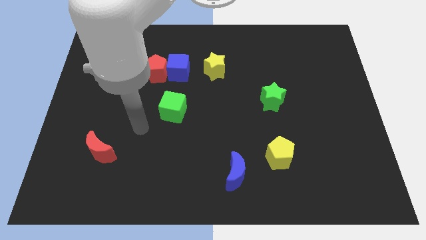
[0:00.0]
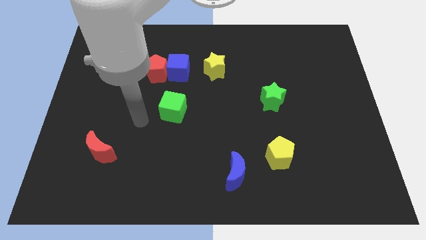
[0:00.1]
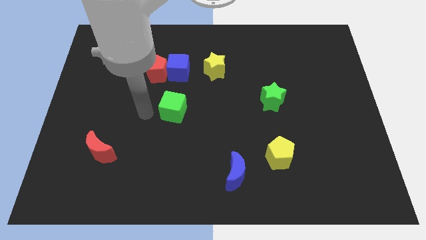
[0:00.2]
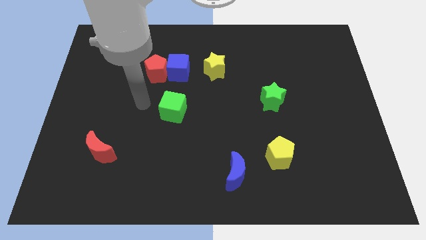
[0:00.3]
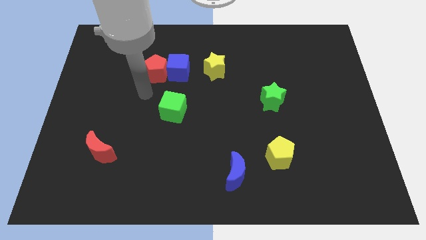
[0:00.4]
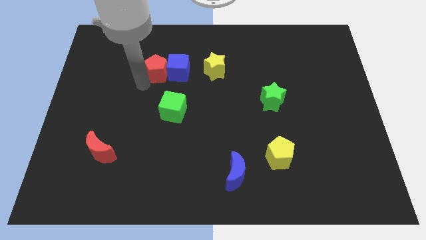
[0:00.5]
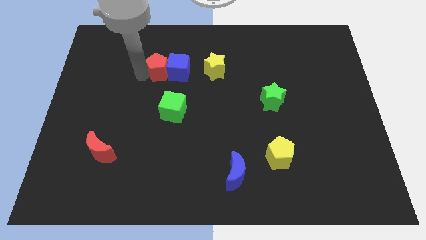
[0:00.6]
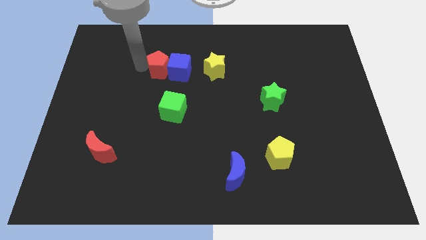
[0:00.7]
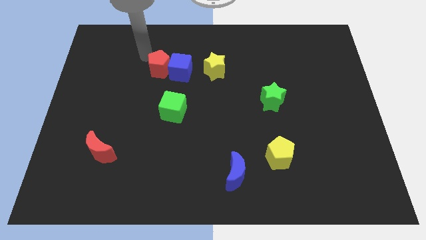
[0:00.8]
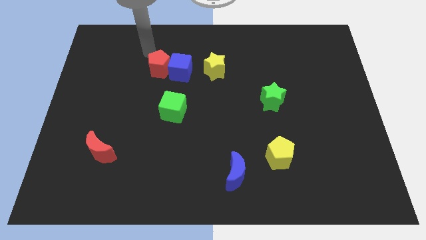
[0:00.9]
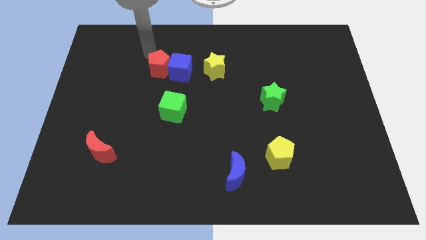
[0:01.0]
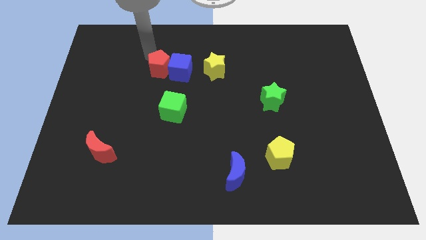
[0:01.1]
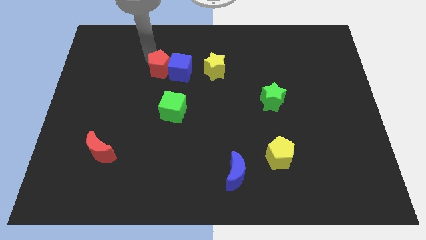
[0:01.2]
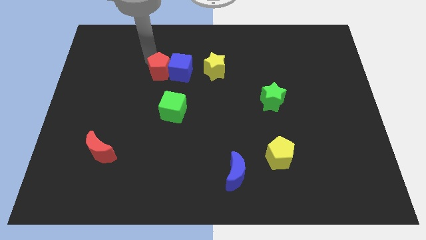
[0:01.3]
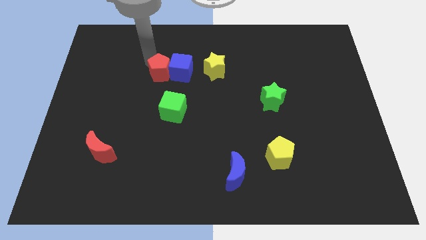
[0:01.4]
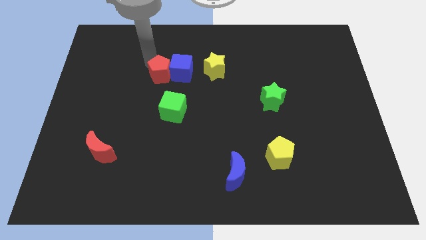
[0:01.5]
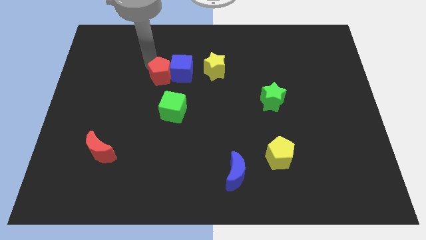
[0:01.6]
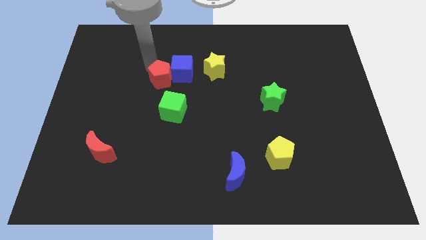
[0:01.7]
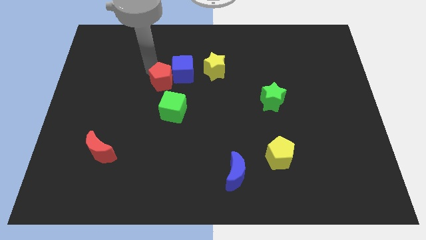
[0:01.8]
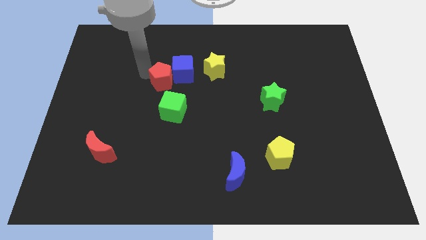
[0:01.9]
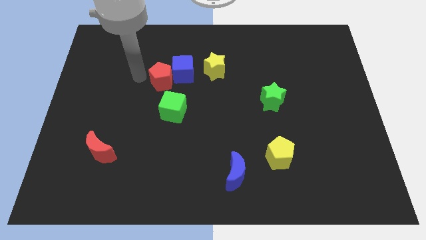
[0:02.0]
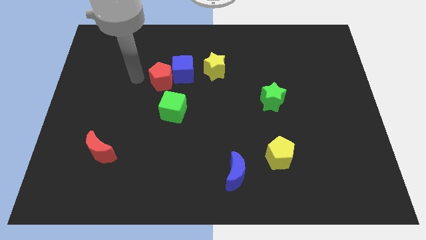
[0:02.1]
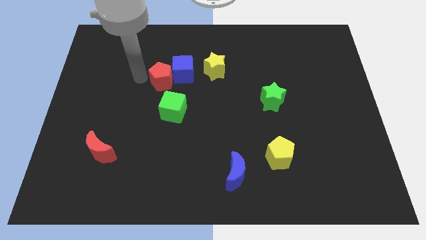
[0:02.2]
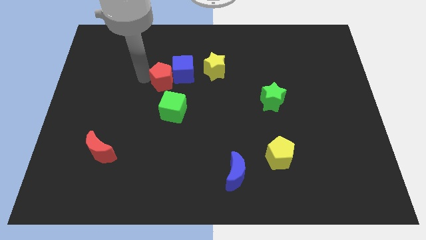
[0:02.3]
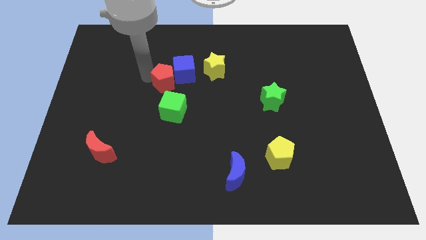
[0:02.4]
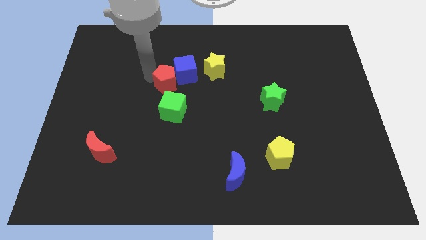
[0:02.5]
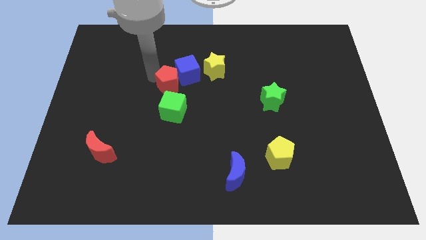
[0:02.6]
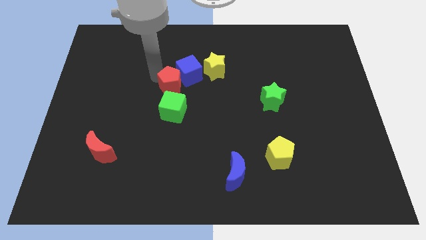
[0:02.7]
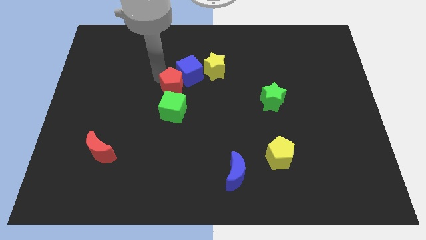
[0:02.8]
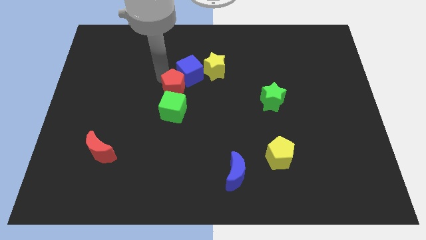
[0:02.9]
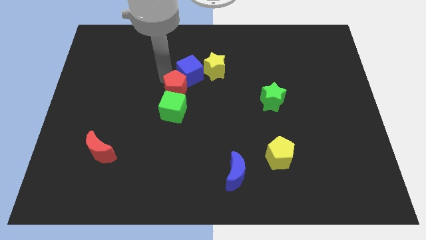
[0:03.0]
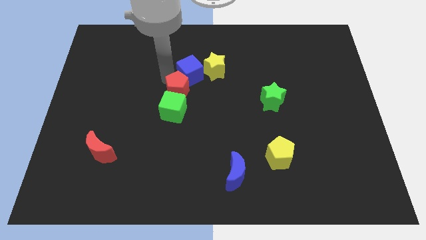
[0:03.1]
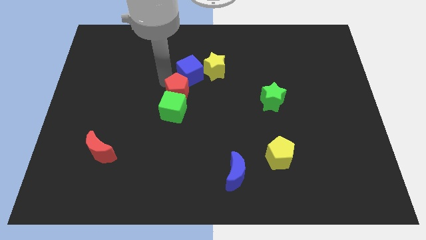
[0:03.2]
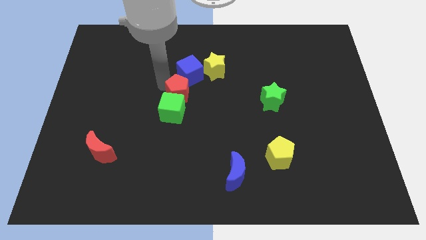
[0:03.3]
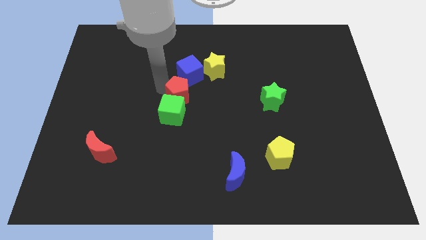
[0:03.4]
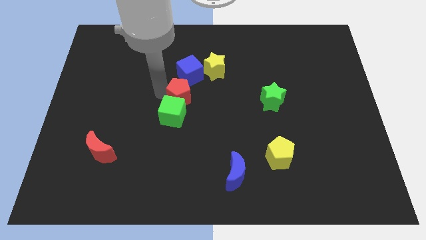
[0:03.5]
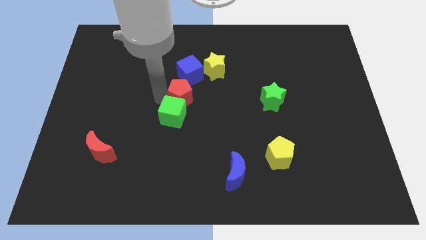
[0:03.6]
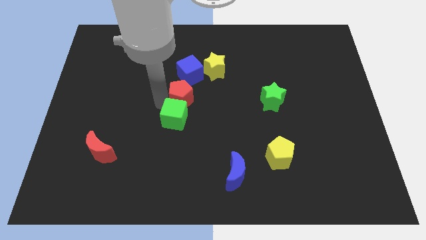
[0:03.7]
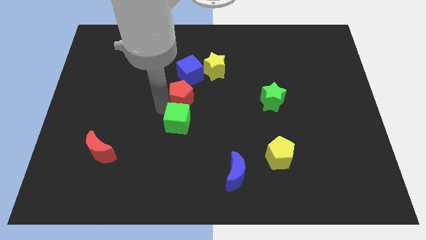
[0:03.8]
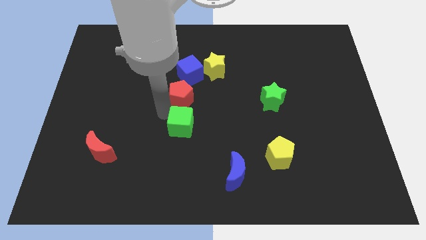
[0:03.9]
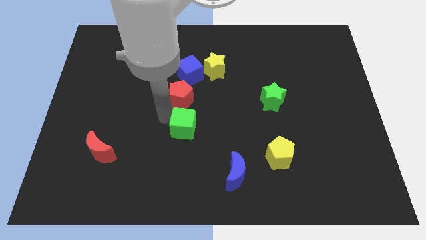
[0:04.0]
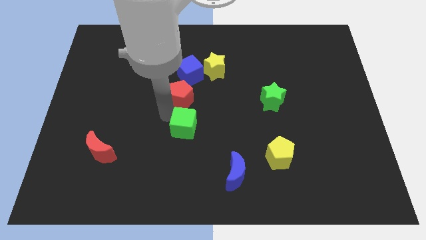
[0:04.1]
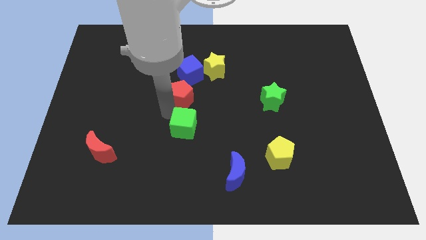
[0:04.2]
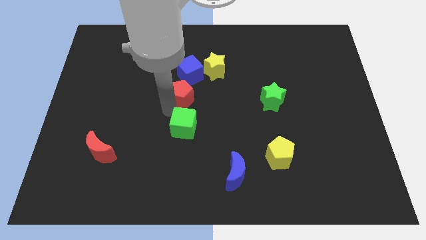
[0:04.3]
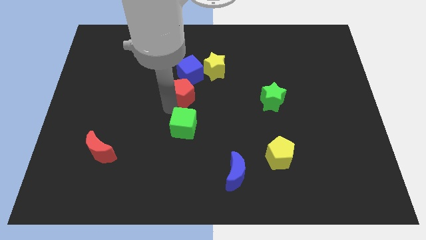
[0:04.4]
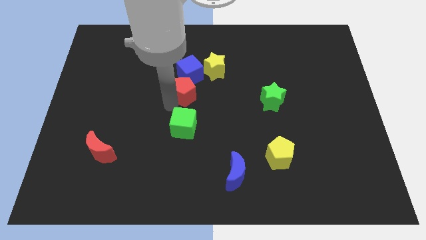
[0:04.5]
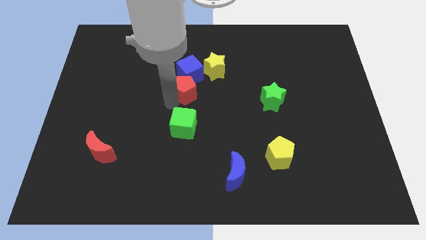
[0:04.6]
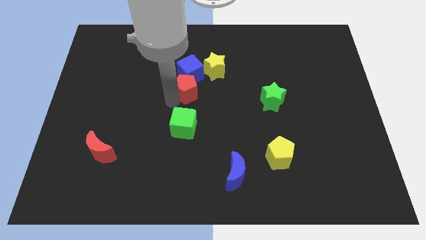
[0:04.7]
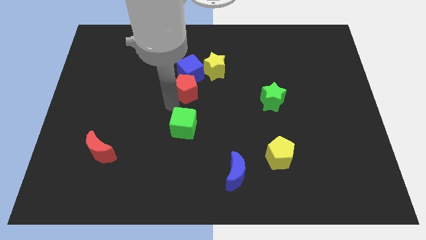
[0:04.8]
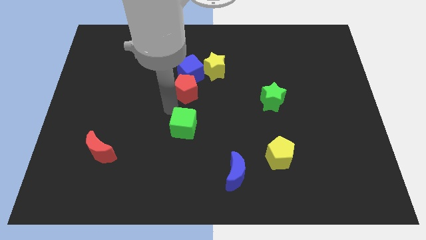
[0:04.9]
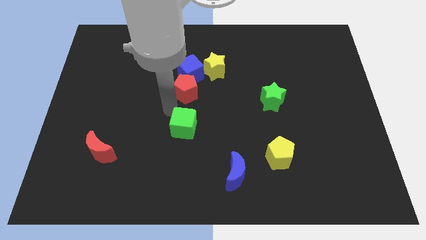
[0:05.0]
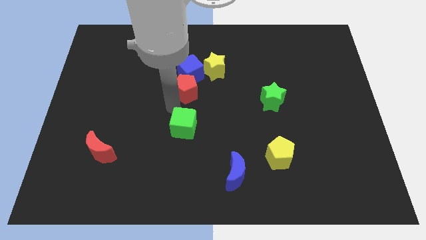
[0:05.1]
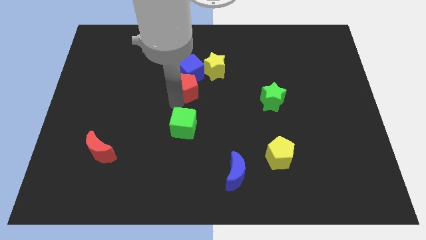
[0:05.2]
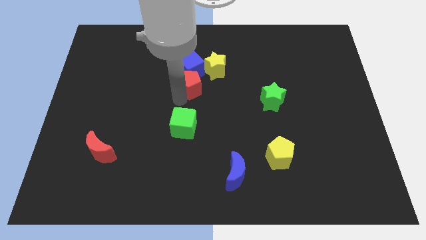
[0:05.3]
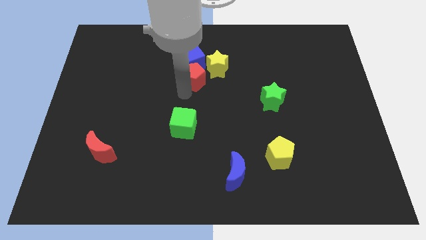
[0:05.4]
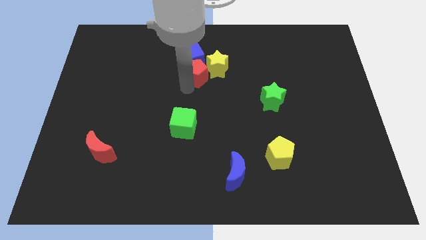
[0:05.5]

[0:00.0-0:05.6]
move the red pentagon close to the yellow star

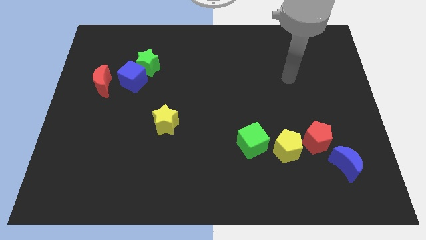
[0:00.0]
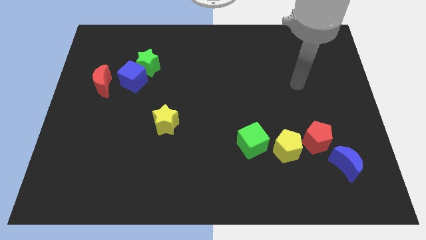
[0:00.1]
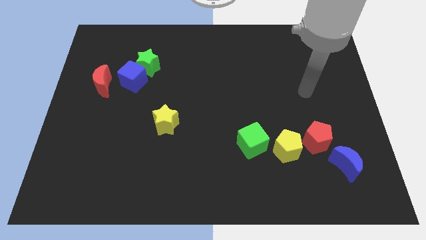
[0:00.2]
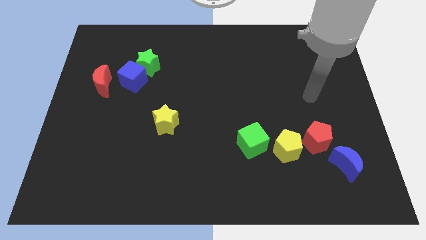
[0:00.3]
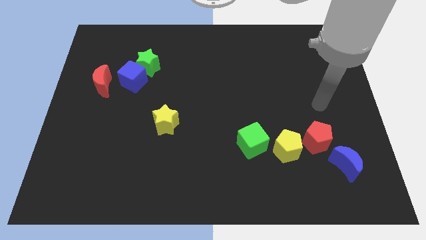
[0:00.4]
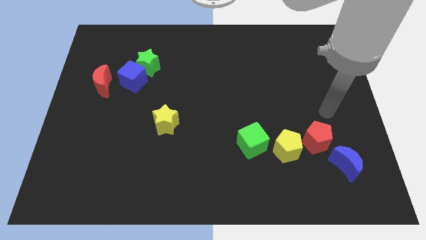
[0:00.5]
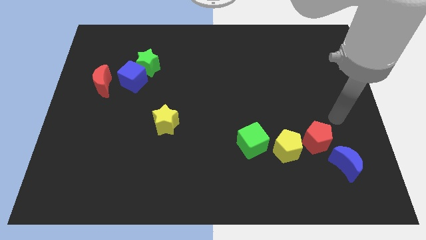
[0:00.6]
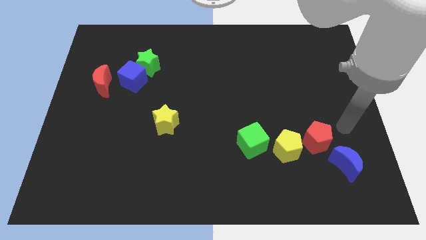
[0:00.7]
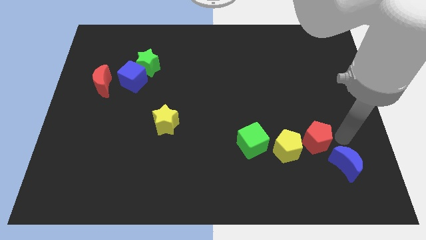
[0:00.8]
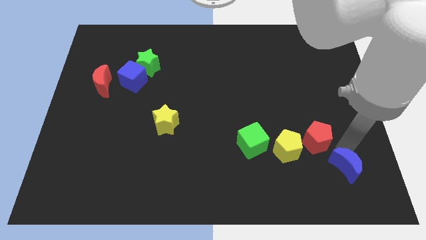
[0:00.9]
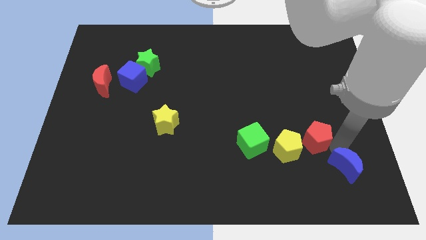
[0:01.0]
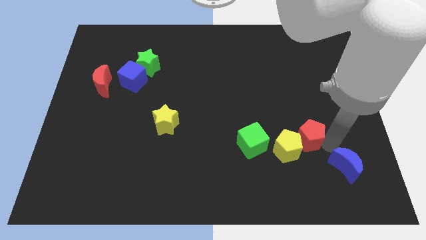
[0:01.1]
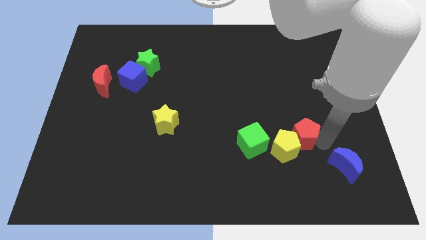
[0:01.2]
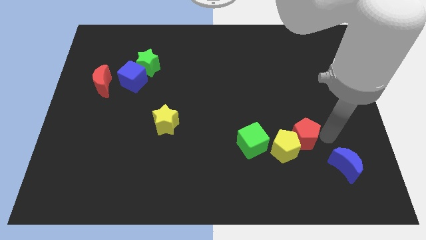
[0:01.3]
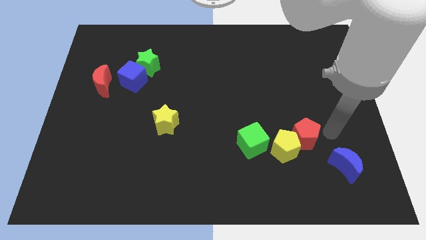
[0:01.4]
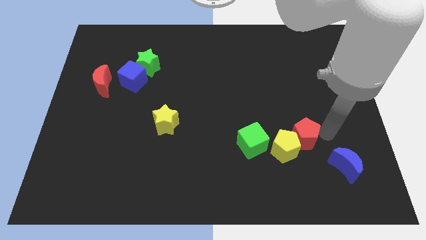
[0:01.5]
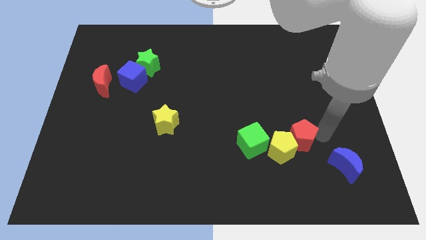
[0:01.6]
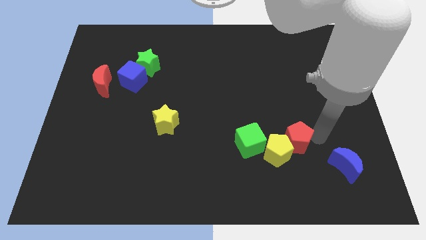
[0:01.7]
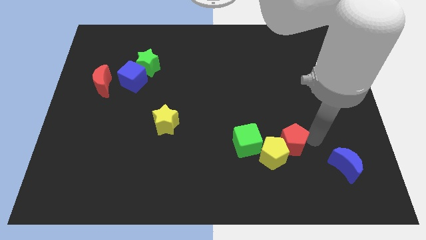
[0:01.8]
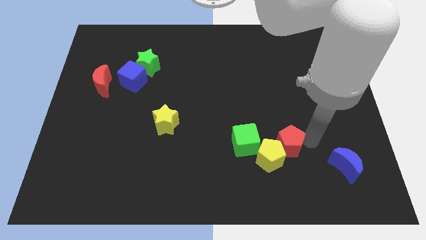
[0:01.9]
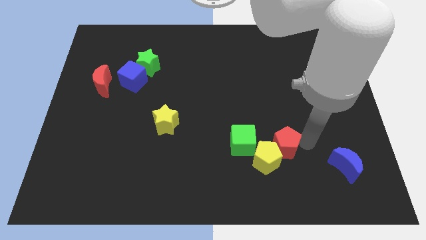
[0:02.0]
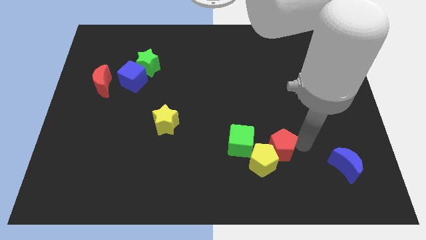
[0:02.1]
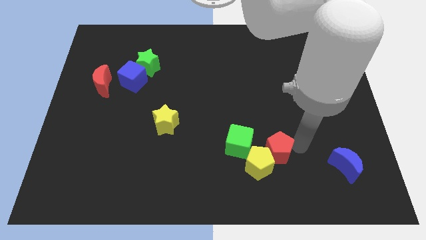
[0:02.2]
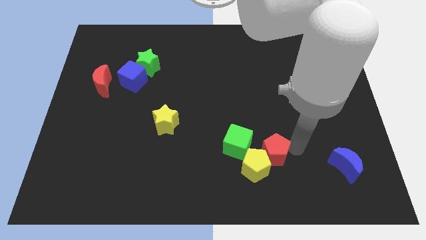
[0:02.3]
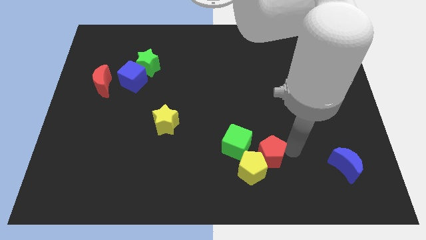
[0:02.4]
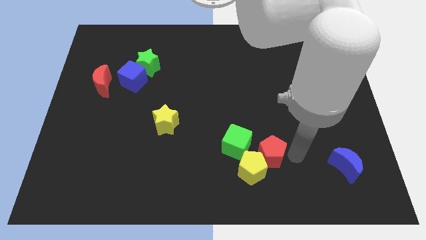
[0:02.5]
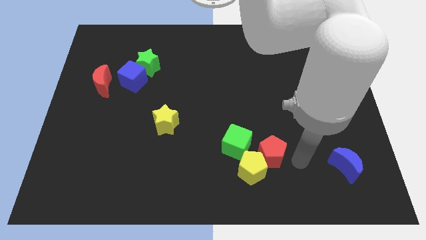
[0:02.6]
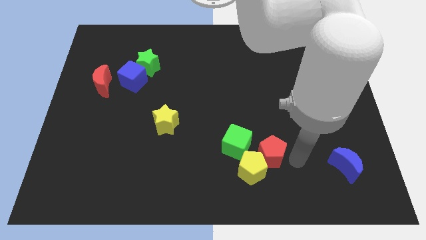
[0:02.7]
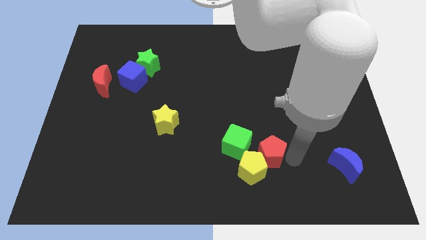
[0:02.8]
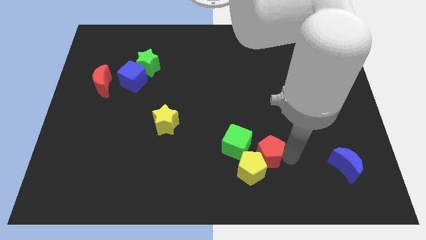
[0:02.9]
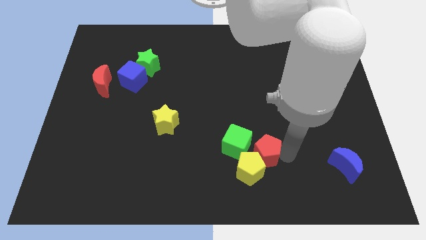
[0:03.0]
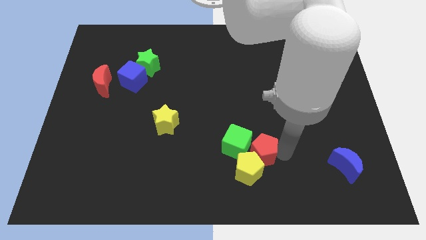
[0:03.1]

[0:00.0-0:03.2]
push the red pentagon towards the green cube
